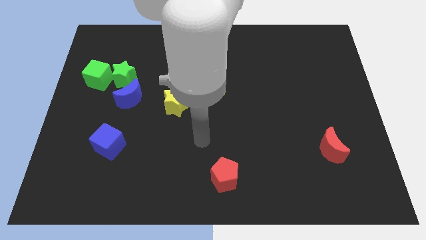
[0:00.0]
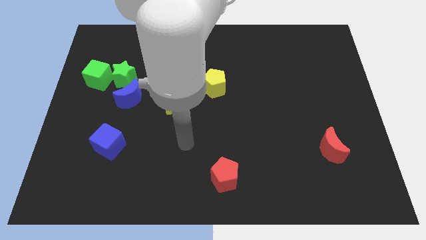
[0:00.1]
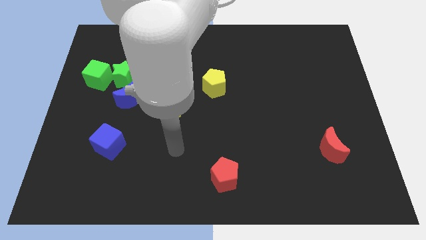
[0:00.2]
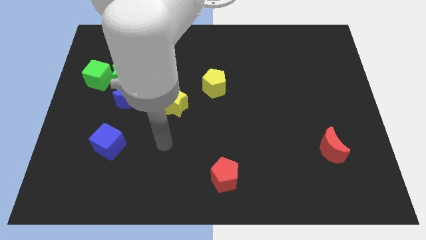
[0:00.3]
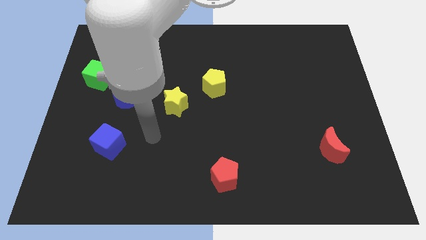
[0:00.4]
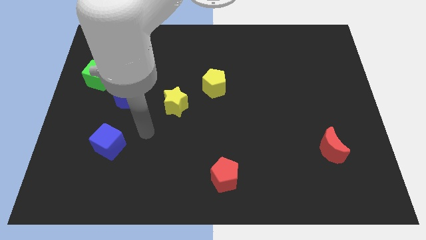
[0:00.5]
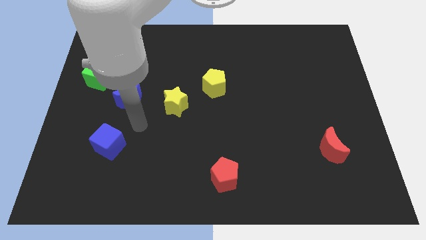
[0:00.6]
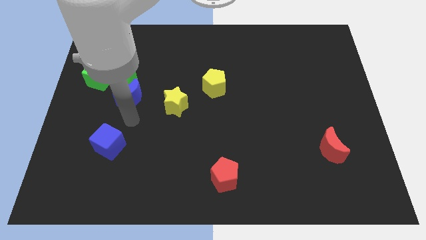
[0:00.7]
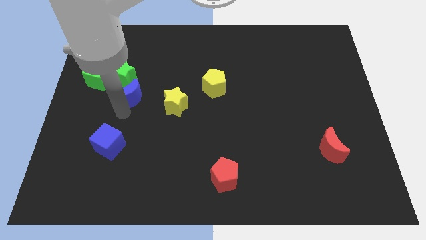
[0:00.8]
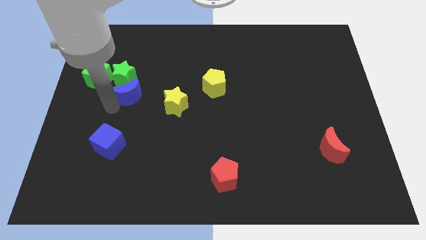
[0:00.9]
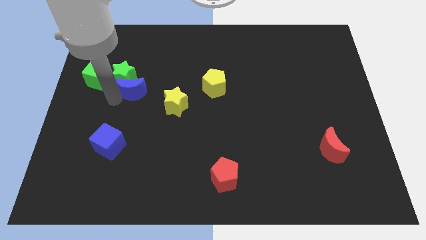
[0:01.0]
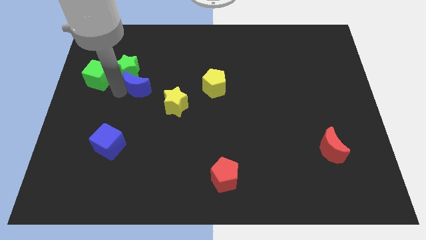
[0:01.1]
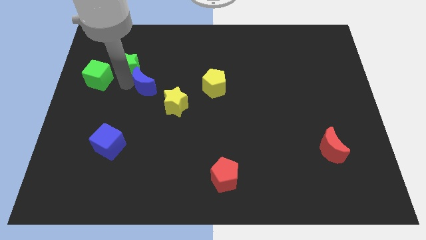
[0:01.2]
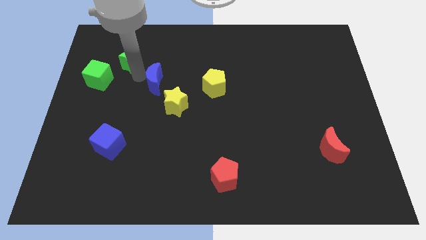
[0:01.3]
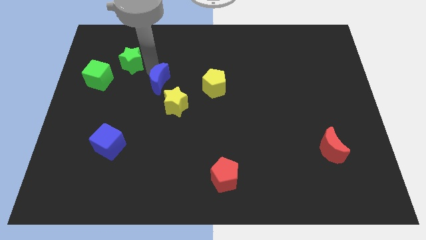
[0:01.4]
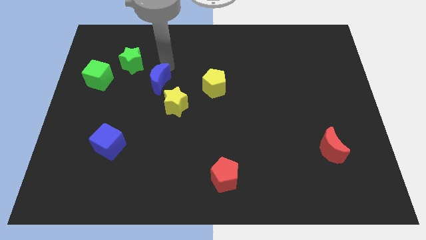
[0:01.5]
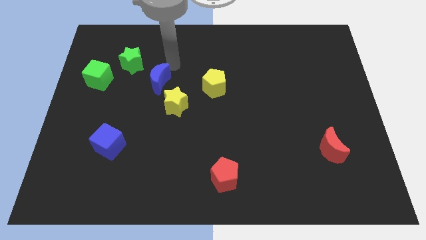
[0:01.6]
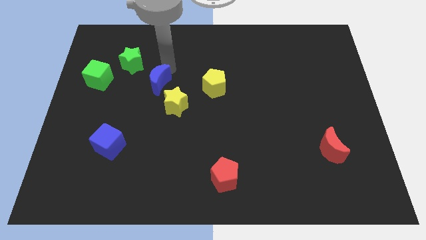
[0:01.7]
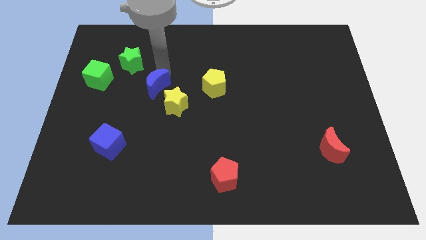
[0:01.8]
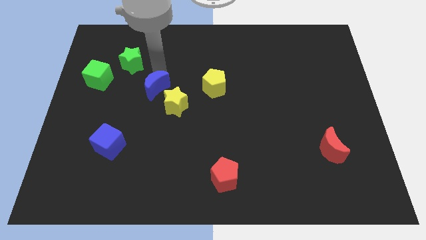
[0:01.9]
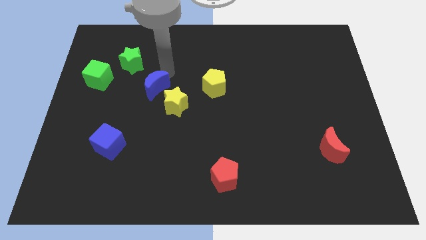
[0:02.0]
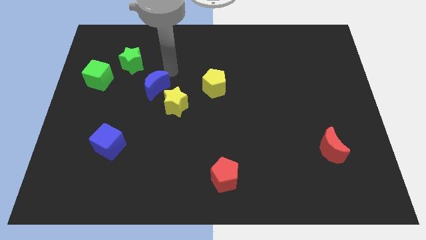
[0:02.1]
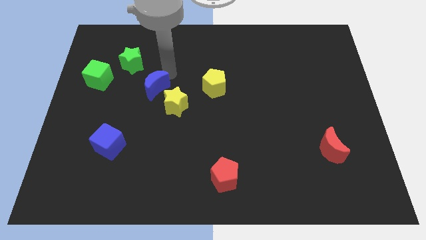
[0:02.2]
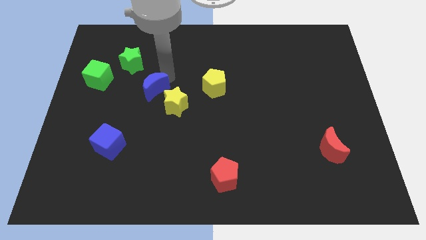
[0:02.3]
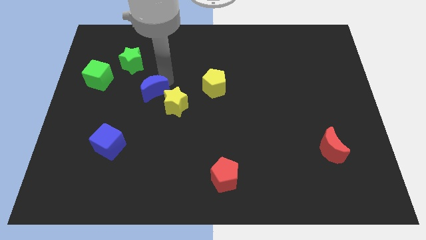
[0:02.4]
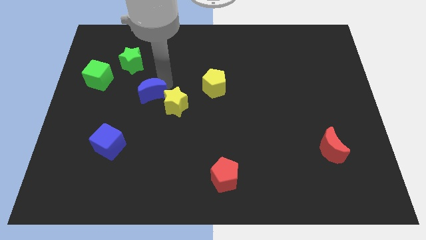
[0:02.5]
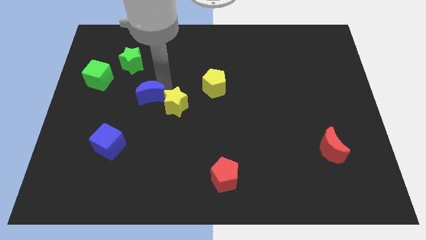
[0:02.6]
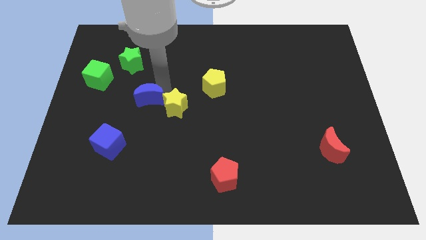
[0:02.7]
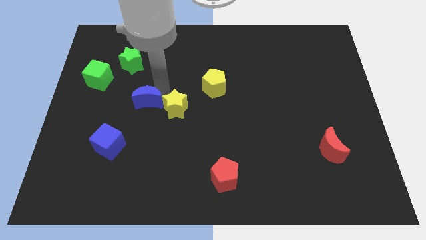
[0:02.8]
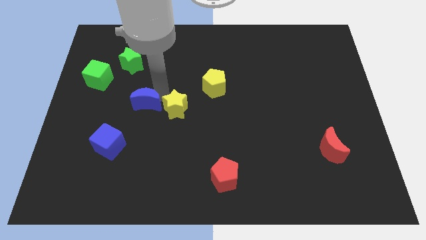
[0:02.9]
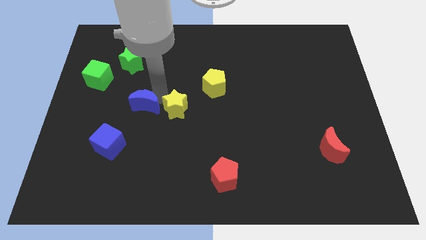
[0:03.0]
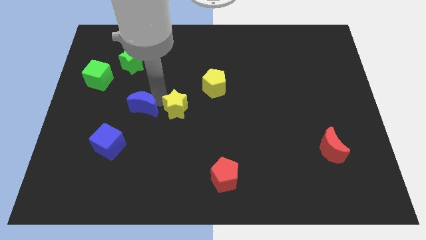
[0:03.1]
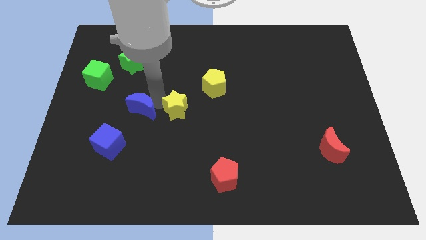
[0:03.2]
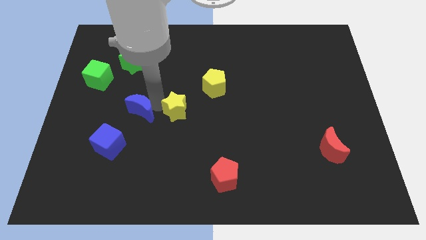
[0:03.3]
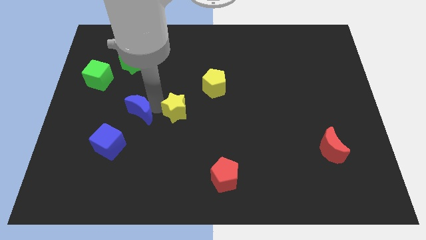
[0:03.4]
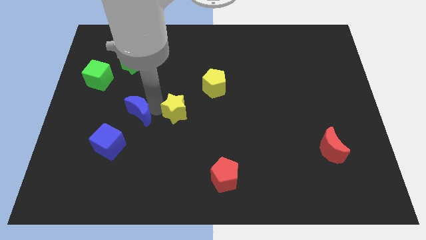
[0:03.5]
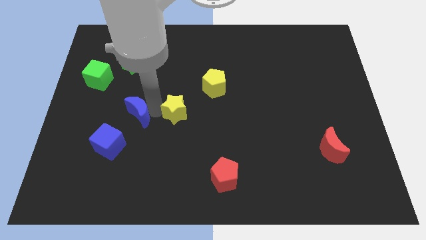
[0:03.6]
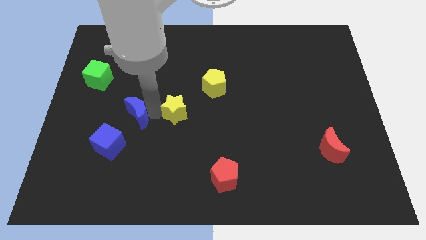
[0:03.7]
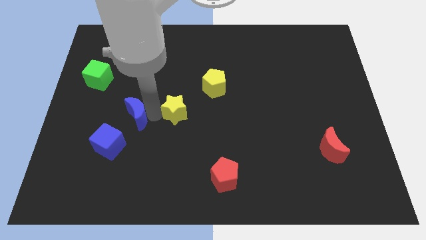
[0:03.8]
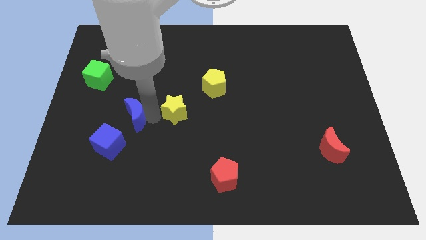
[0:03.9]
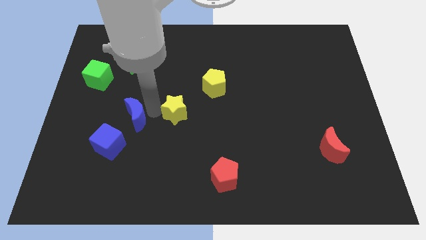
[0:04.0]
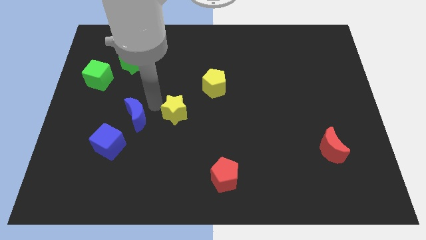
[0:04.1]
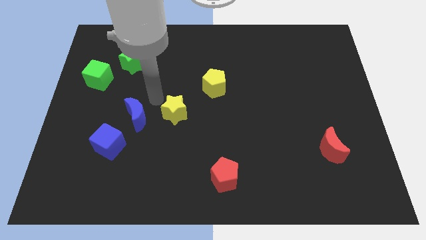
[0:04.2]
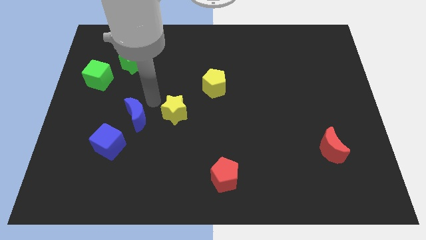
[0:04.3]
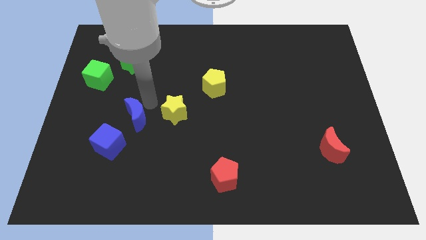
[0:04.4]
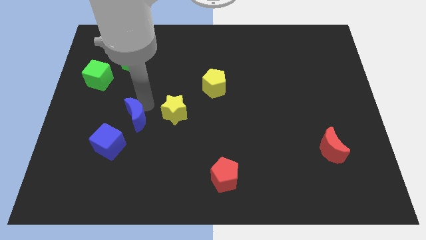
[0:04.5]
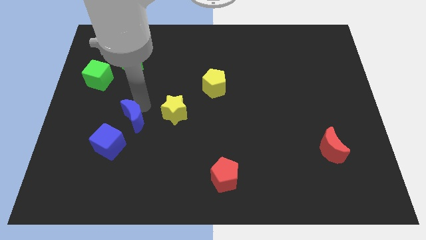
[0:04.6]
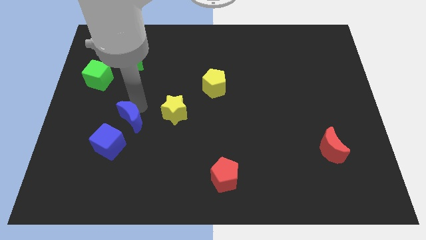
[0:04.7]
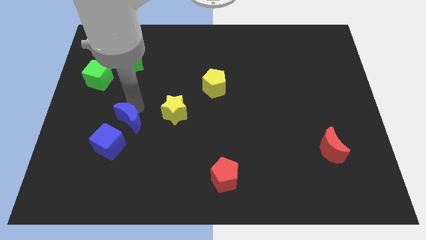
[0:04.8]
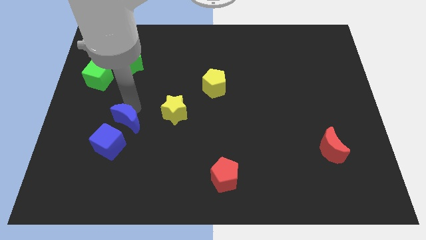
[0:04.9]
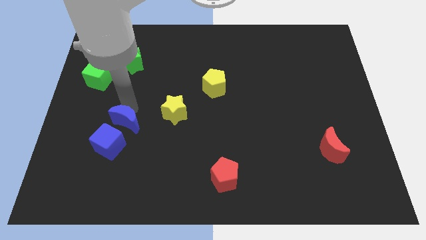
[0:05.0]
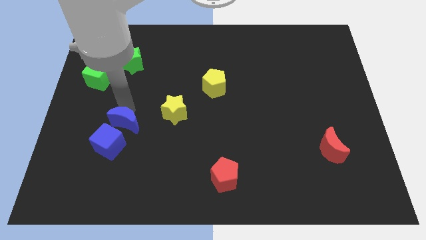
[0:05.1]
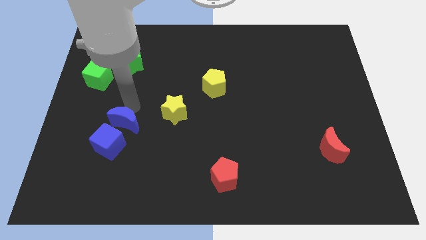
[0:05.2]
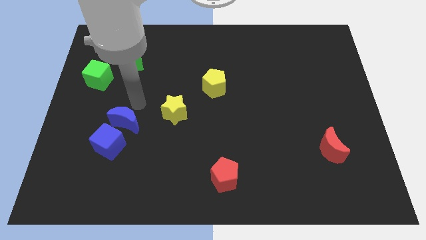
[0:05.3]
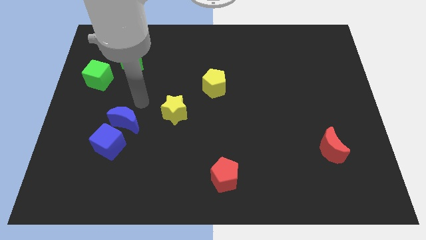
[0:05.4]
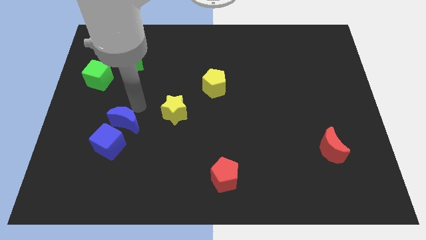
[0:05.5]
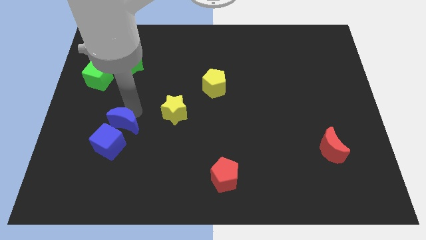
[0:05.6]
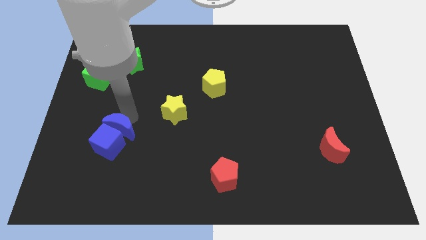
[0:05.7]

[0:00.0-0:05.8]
slide the blue moon towards the blue cube

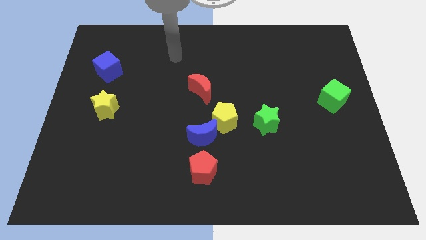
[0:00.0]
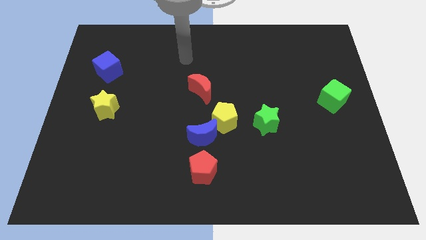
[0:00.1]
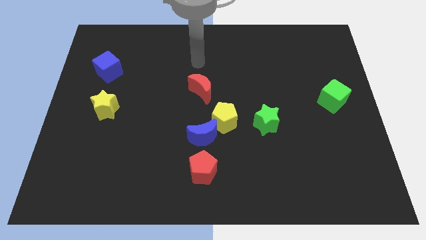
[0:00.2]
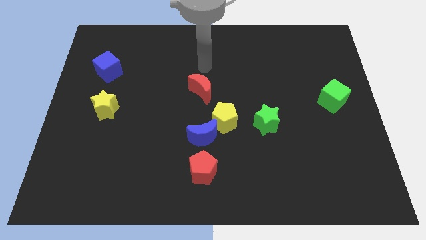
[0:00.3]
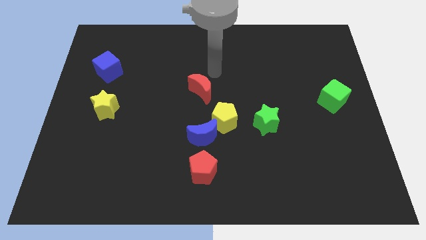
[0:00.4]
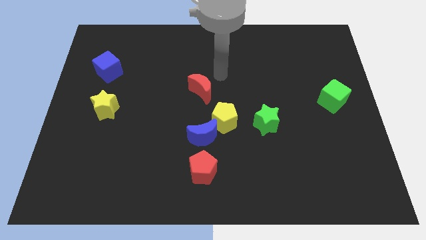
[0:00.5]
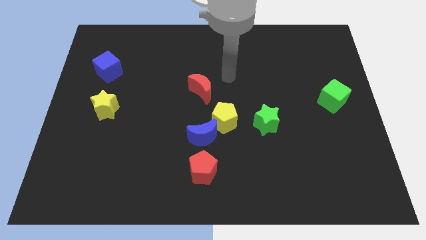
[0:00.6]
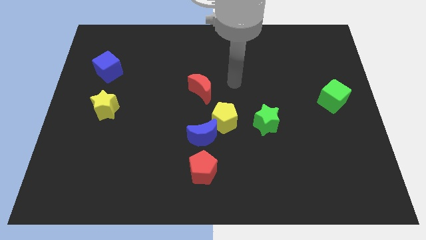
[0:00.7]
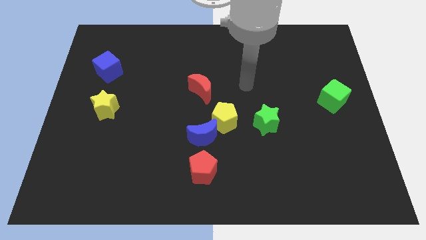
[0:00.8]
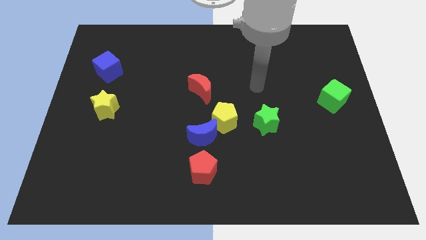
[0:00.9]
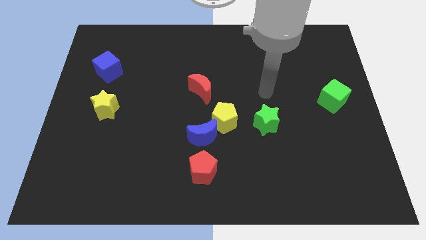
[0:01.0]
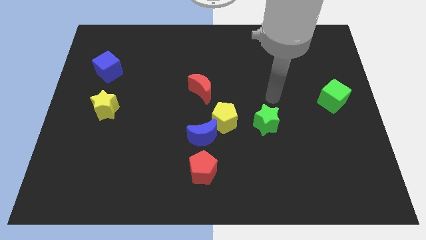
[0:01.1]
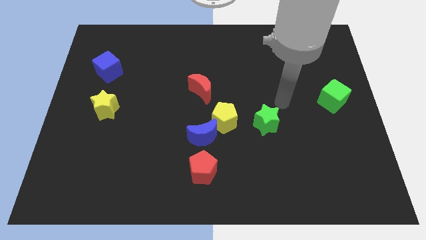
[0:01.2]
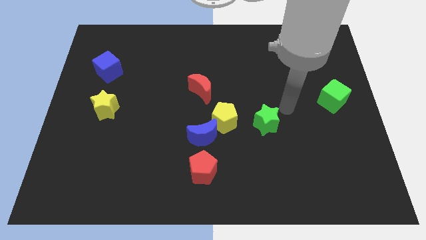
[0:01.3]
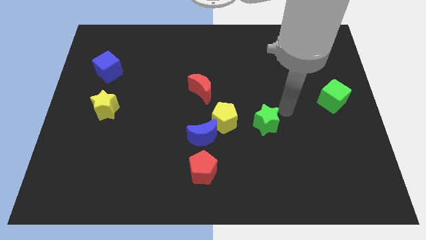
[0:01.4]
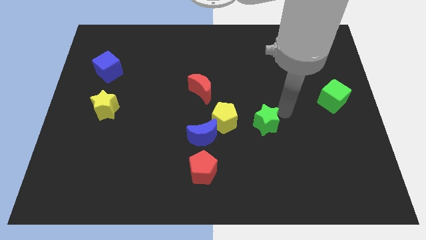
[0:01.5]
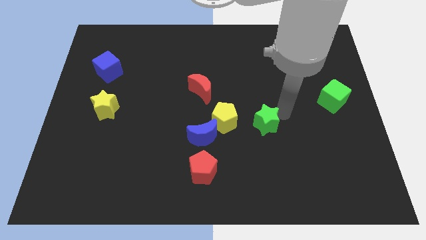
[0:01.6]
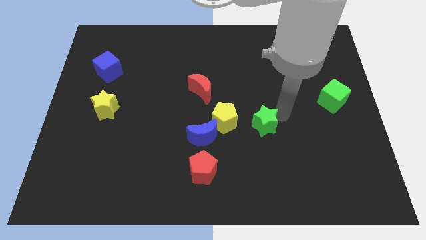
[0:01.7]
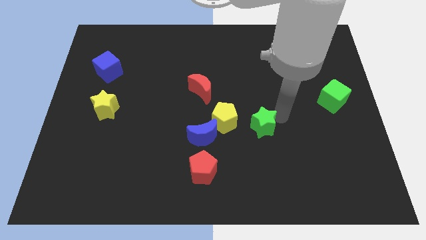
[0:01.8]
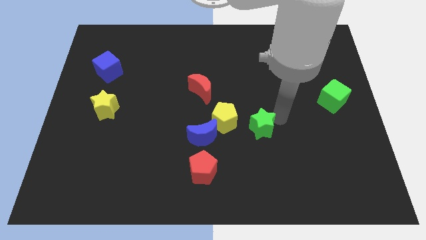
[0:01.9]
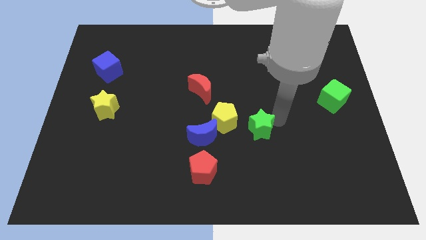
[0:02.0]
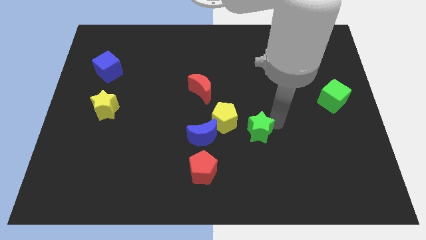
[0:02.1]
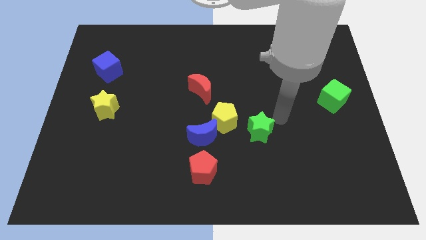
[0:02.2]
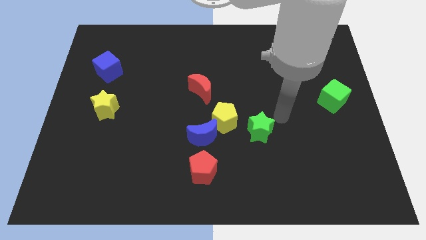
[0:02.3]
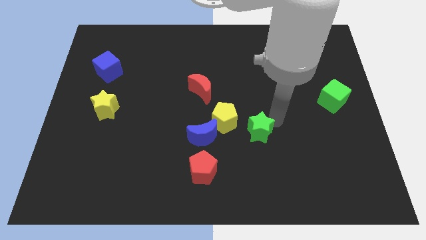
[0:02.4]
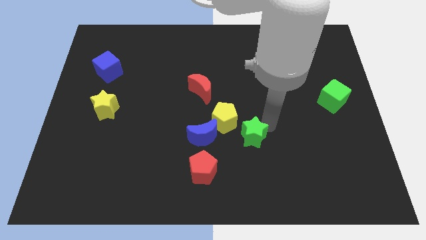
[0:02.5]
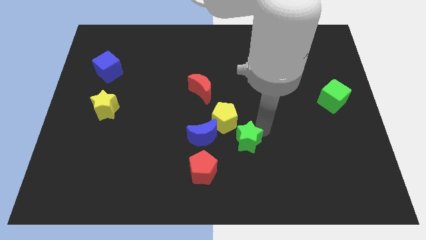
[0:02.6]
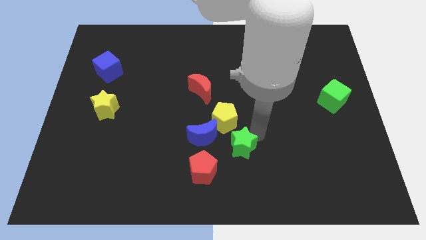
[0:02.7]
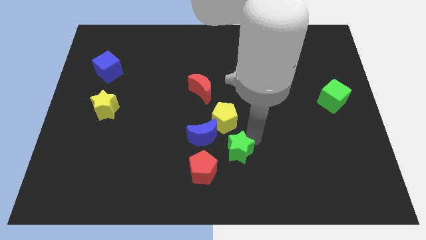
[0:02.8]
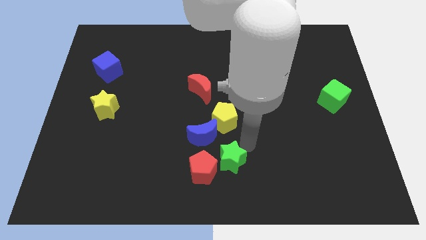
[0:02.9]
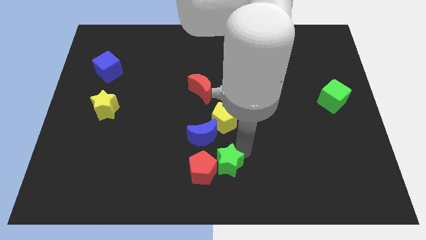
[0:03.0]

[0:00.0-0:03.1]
move the green star towards the red pentagon
